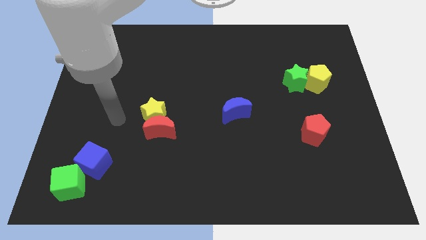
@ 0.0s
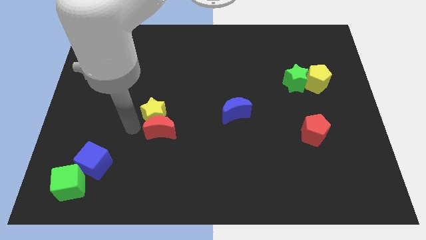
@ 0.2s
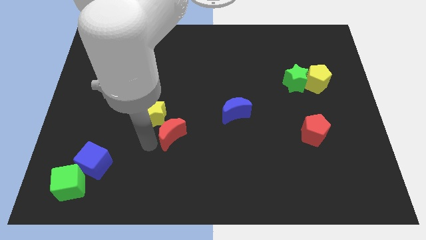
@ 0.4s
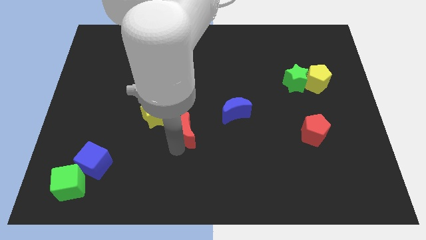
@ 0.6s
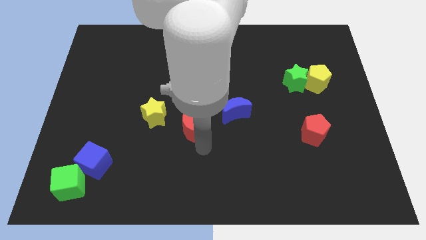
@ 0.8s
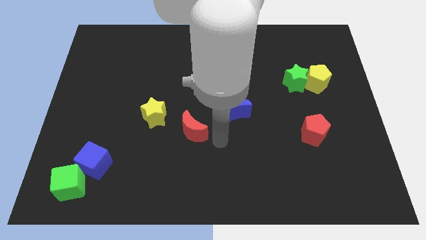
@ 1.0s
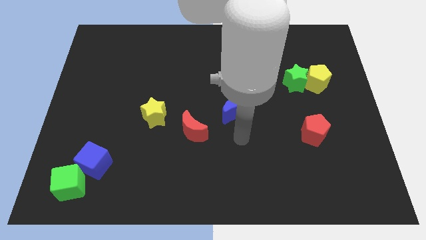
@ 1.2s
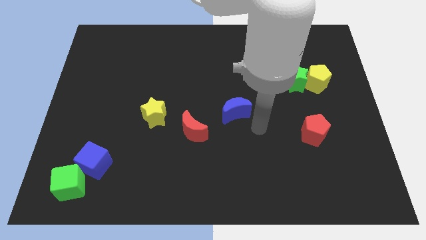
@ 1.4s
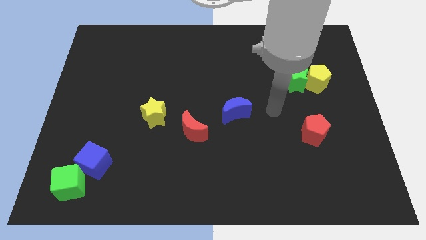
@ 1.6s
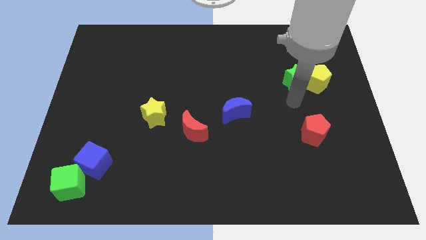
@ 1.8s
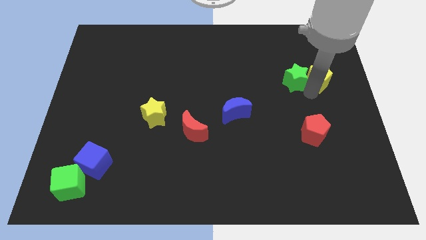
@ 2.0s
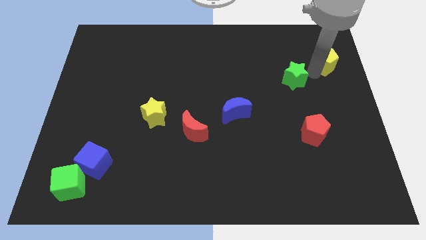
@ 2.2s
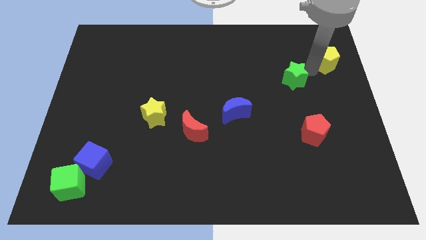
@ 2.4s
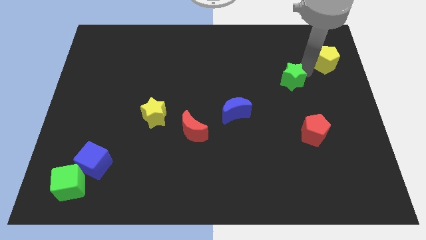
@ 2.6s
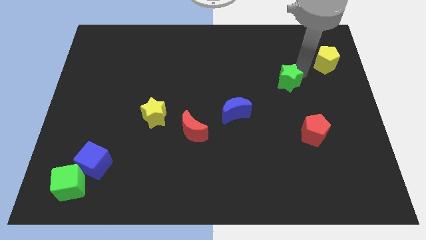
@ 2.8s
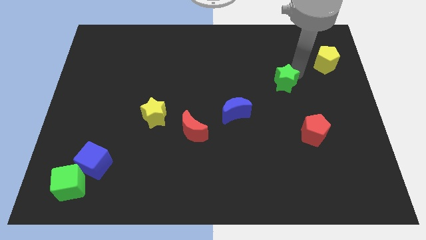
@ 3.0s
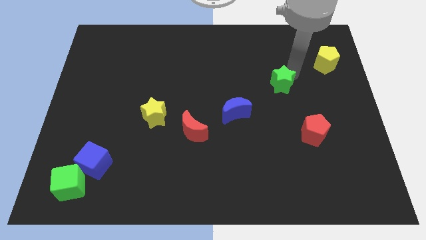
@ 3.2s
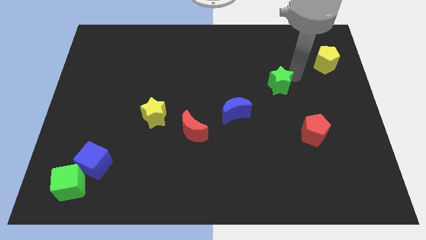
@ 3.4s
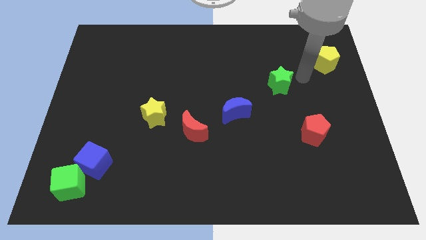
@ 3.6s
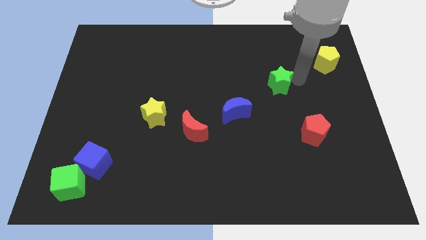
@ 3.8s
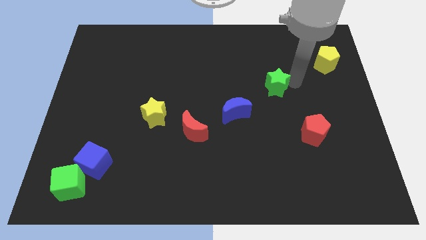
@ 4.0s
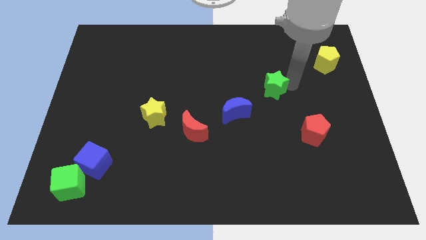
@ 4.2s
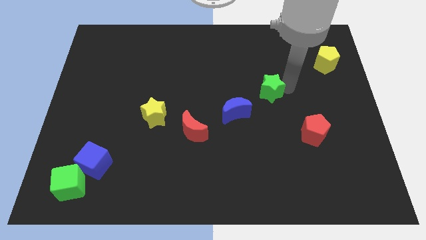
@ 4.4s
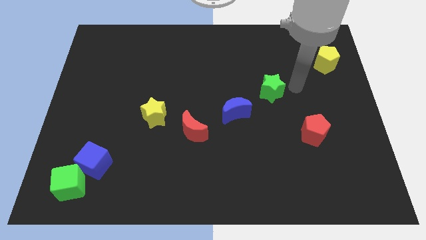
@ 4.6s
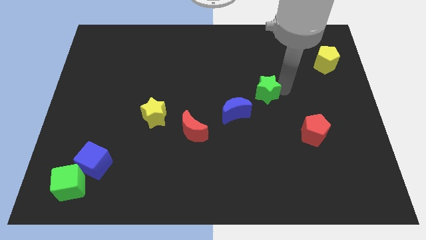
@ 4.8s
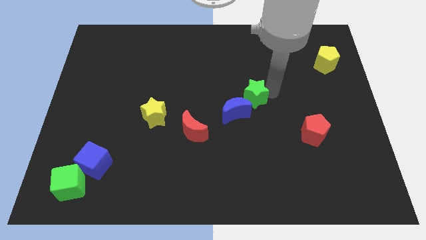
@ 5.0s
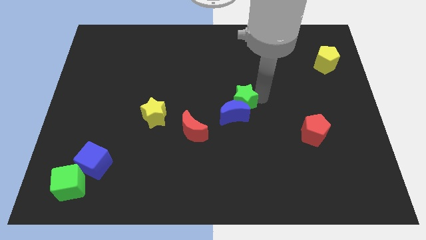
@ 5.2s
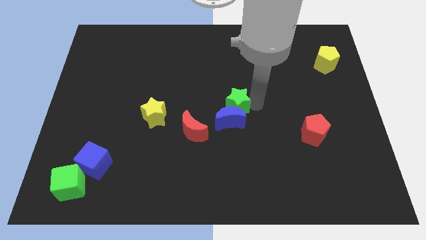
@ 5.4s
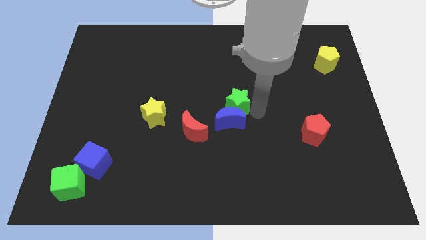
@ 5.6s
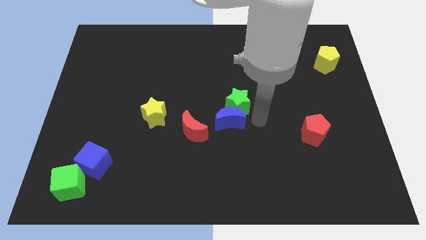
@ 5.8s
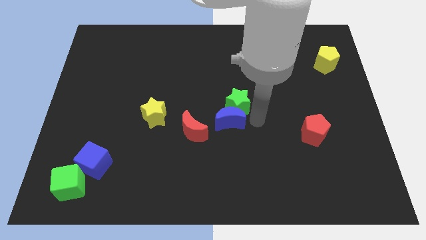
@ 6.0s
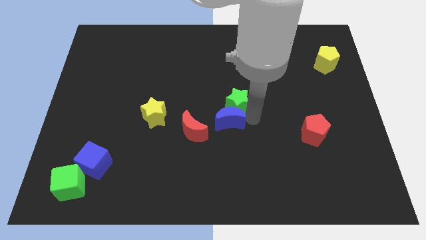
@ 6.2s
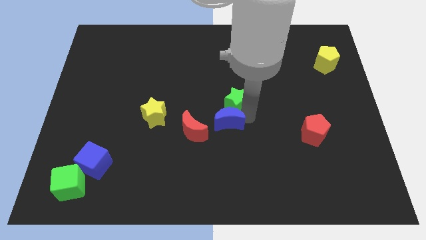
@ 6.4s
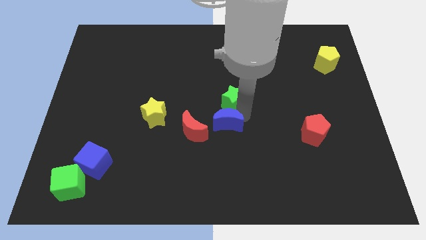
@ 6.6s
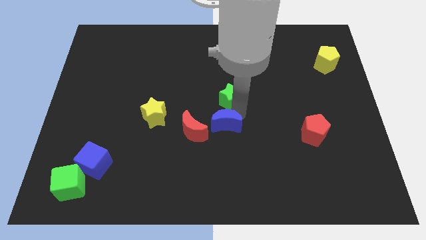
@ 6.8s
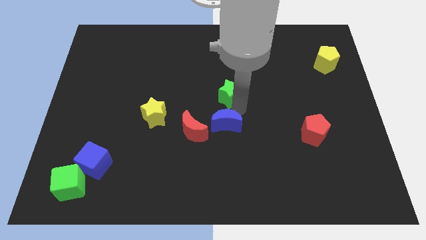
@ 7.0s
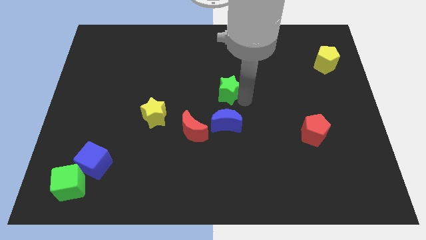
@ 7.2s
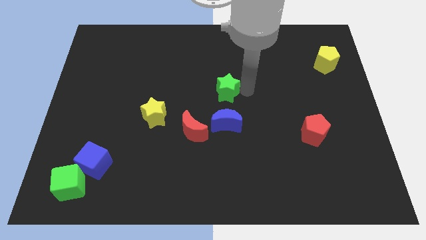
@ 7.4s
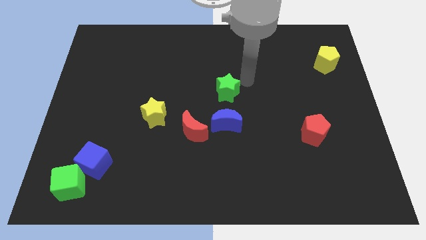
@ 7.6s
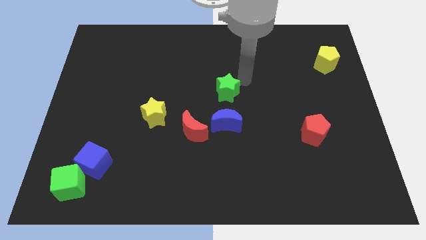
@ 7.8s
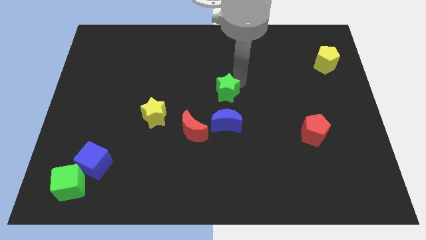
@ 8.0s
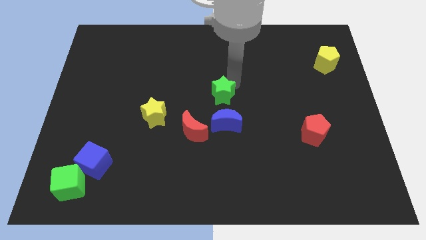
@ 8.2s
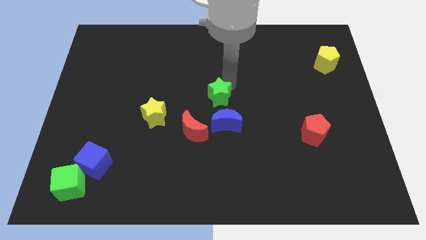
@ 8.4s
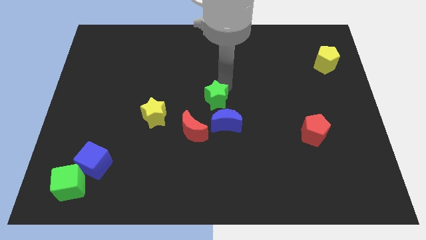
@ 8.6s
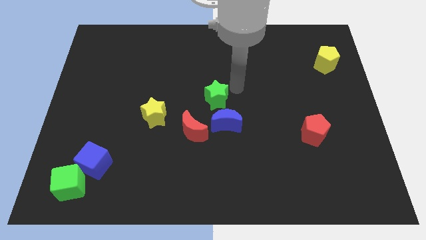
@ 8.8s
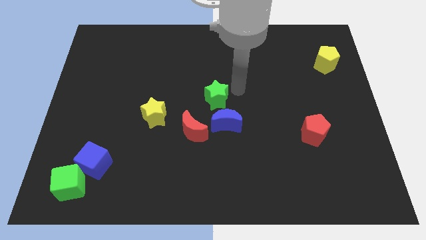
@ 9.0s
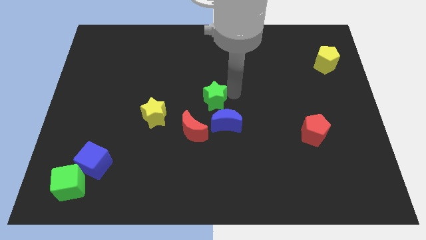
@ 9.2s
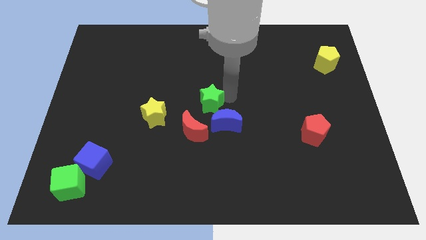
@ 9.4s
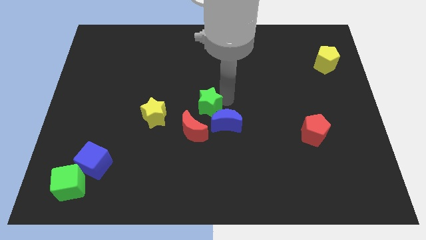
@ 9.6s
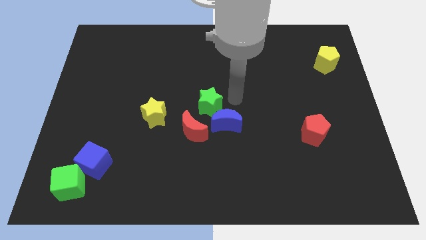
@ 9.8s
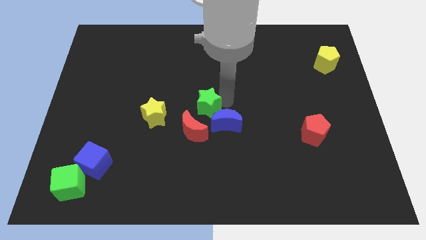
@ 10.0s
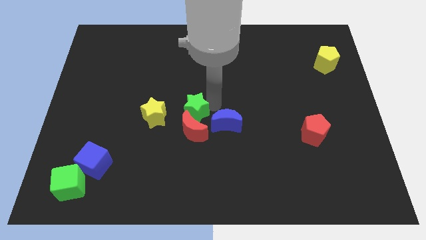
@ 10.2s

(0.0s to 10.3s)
move the green star close to the red moon

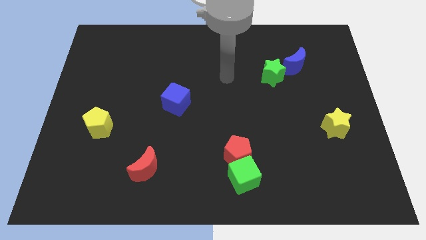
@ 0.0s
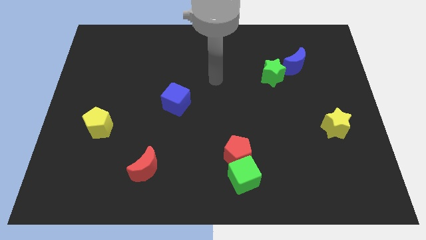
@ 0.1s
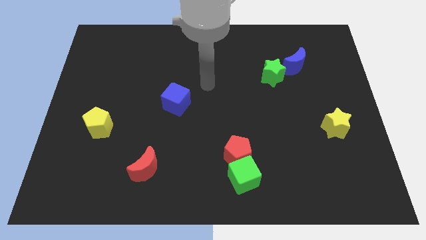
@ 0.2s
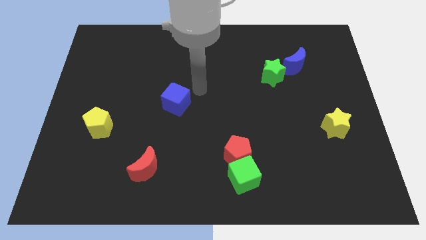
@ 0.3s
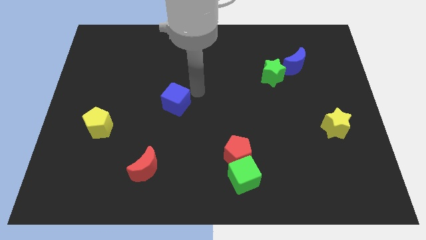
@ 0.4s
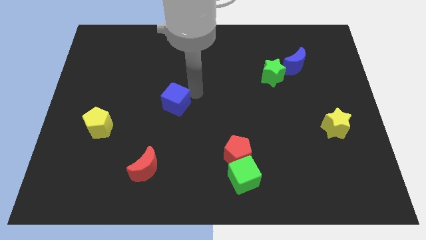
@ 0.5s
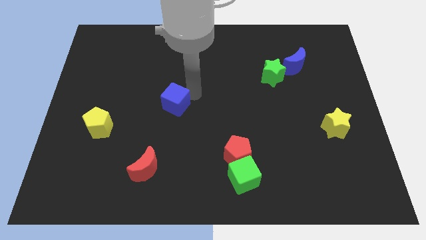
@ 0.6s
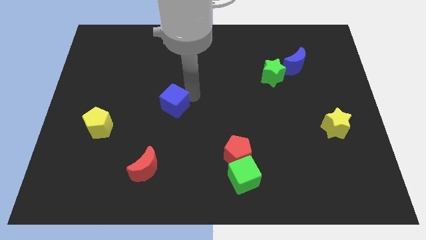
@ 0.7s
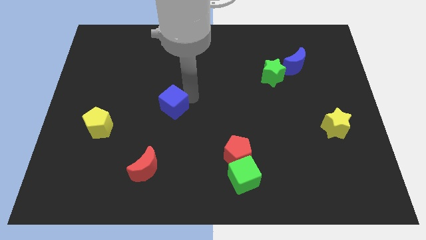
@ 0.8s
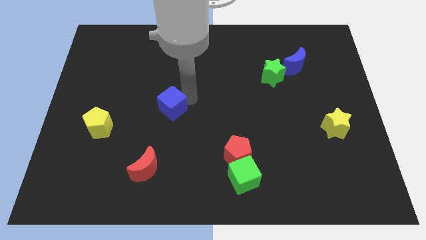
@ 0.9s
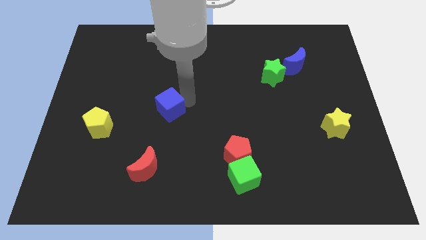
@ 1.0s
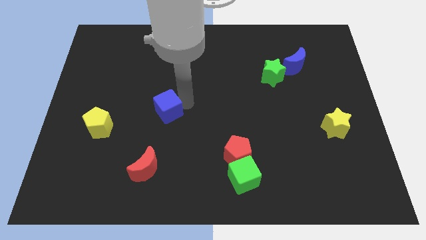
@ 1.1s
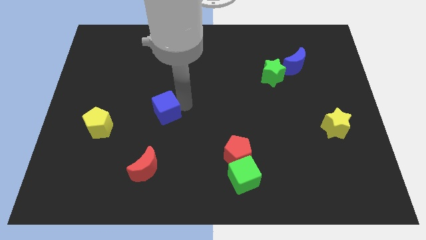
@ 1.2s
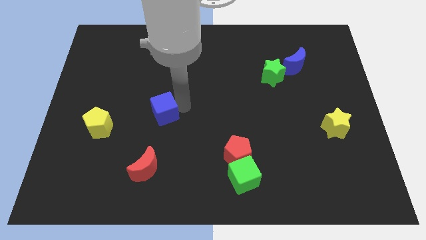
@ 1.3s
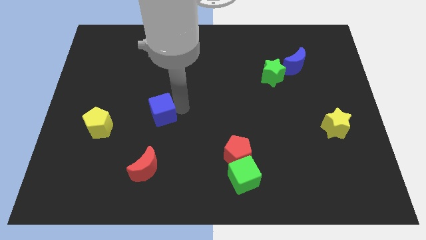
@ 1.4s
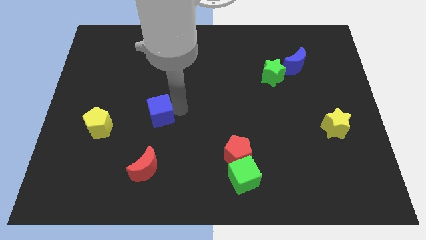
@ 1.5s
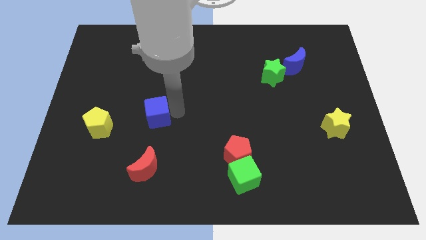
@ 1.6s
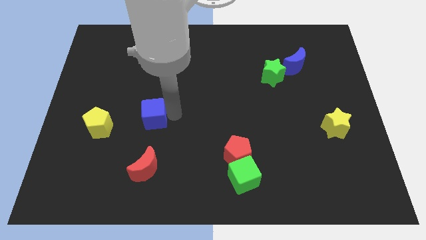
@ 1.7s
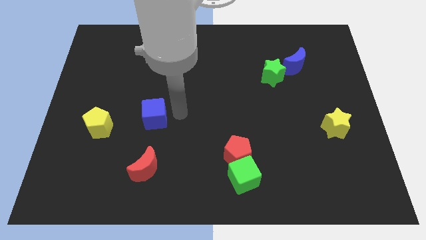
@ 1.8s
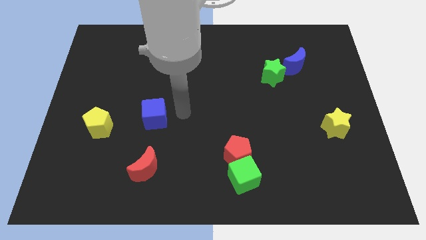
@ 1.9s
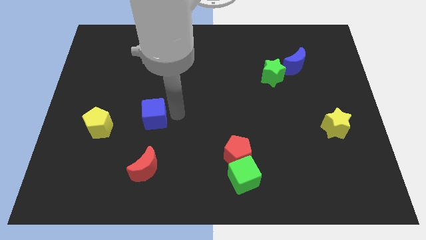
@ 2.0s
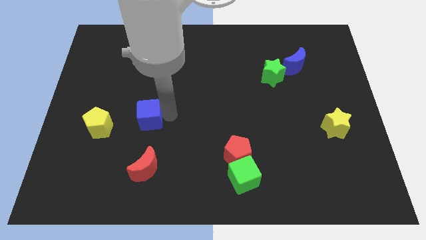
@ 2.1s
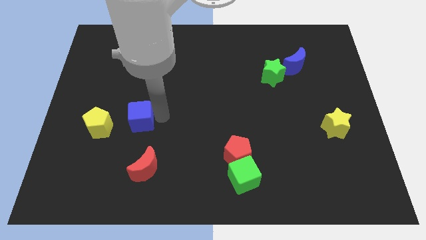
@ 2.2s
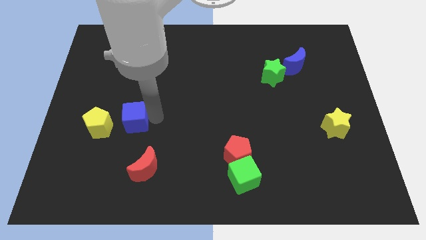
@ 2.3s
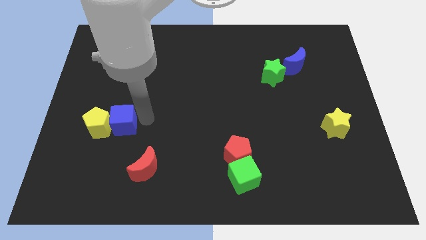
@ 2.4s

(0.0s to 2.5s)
push the blue cube to the yellow pentagon
